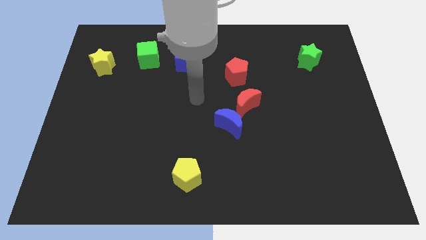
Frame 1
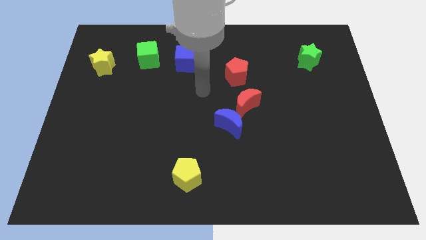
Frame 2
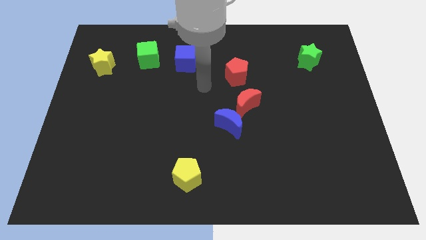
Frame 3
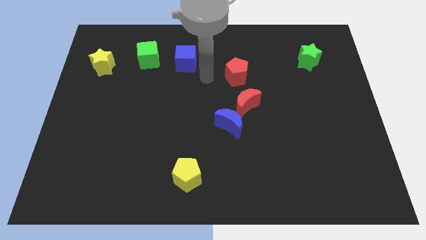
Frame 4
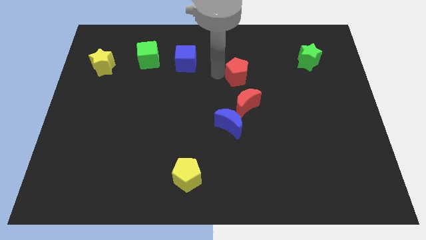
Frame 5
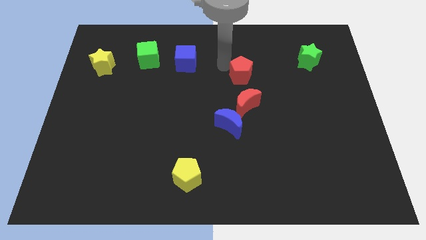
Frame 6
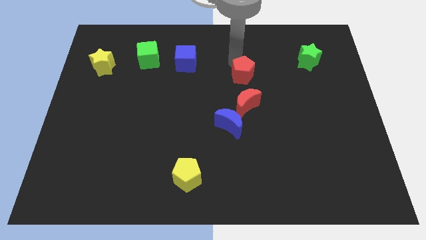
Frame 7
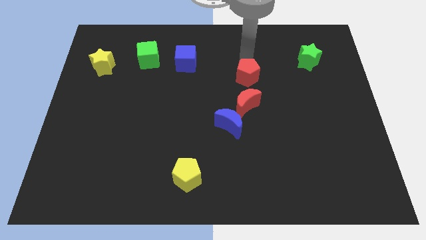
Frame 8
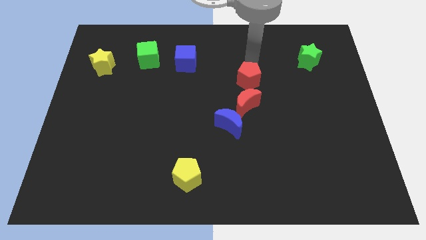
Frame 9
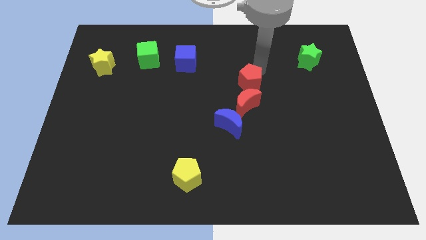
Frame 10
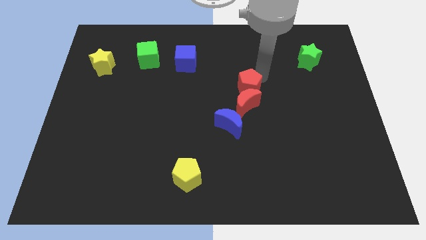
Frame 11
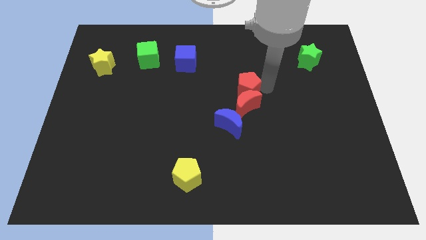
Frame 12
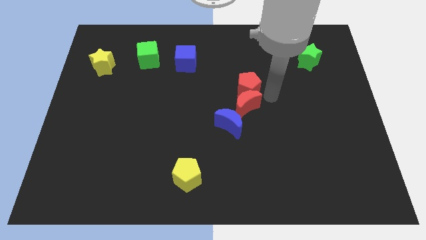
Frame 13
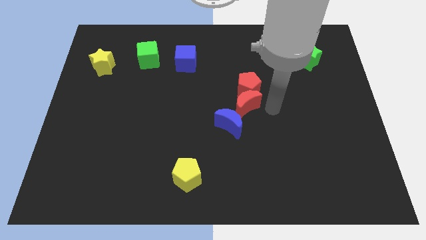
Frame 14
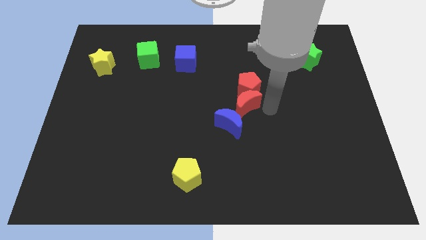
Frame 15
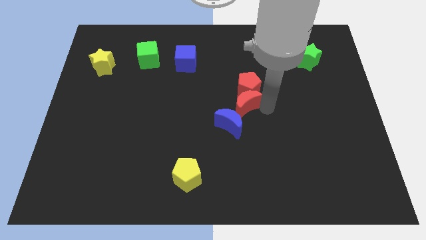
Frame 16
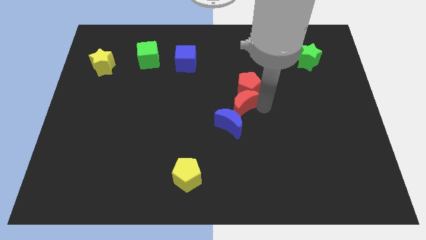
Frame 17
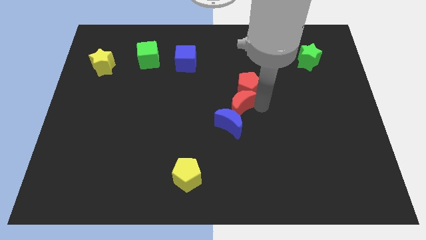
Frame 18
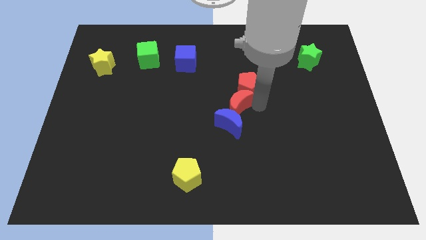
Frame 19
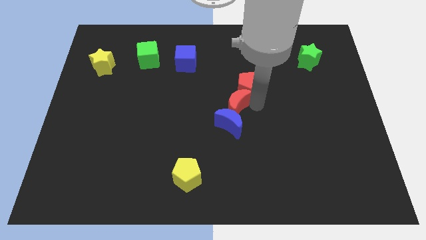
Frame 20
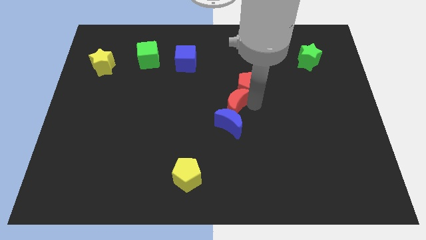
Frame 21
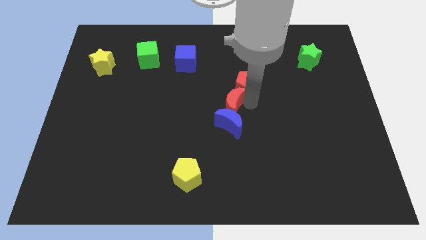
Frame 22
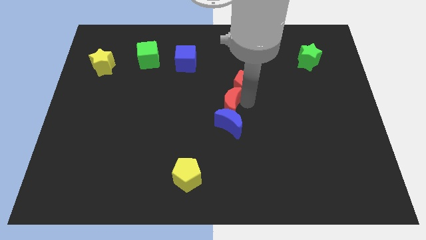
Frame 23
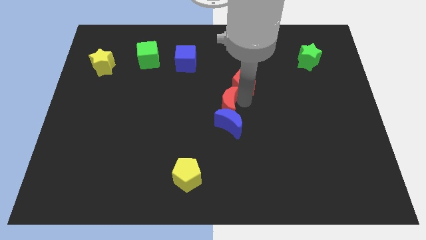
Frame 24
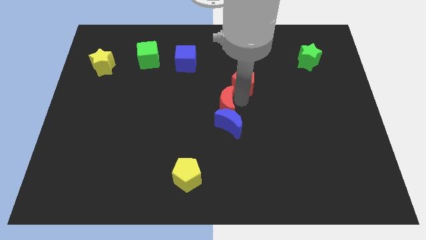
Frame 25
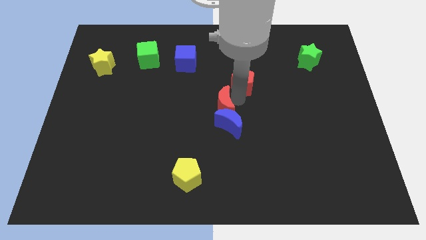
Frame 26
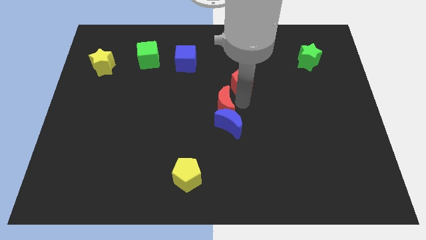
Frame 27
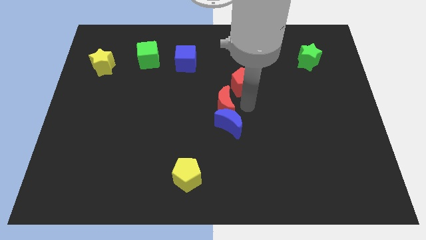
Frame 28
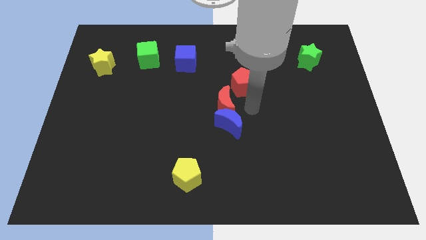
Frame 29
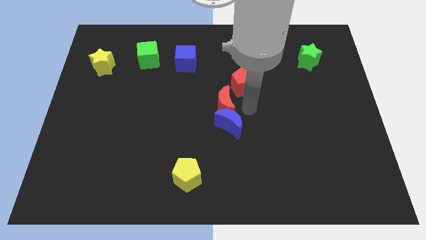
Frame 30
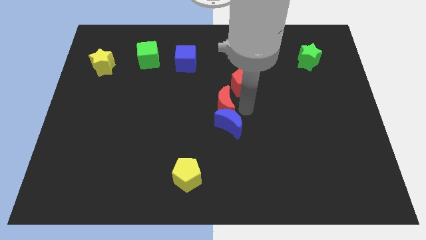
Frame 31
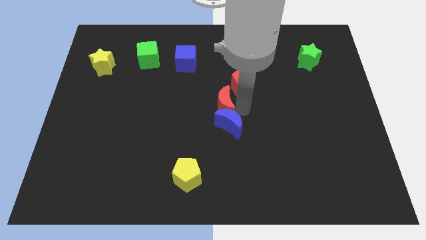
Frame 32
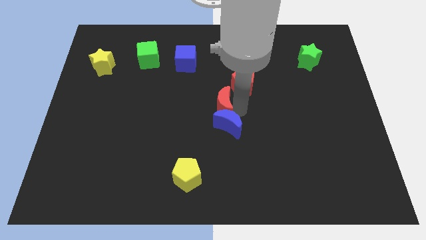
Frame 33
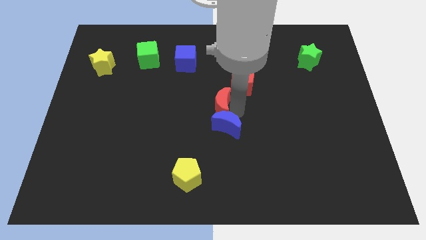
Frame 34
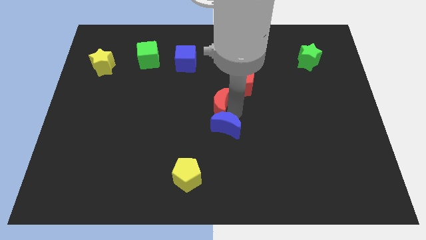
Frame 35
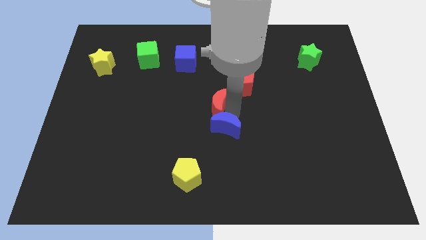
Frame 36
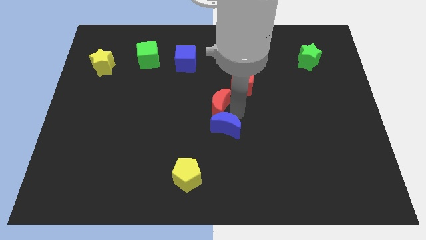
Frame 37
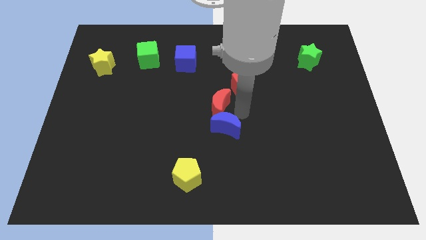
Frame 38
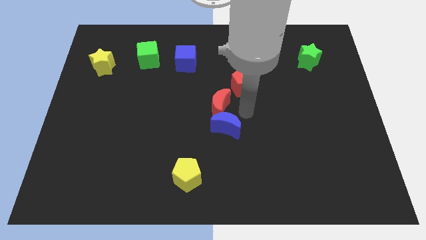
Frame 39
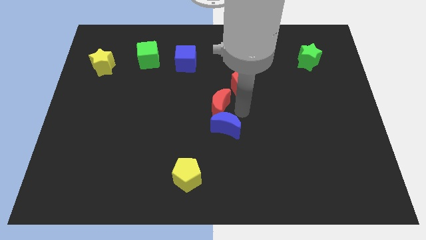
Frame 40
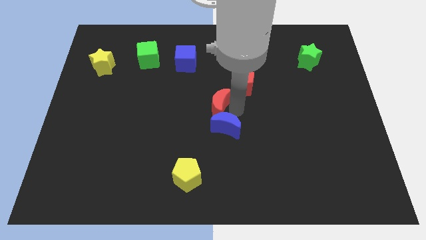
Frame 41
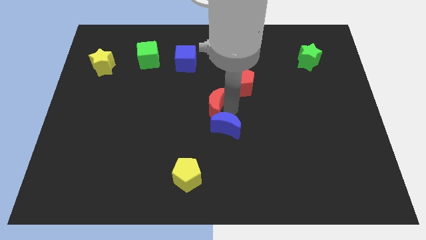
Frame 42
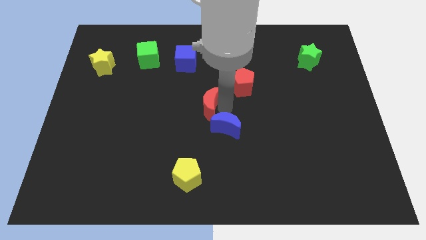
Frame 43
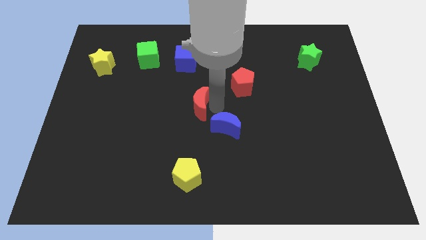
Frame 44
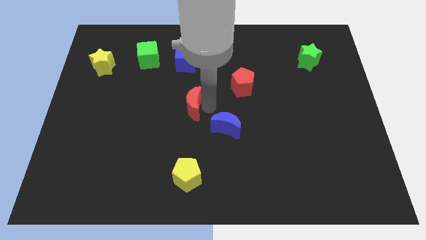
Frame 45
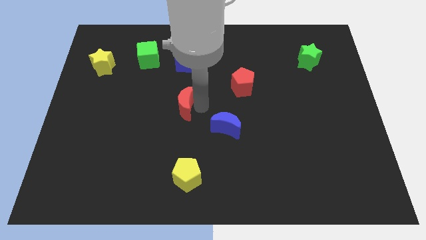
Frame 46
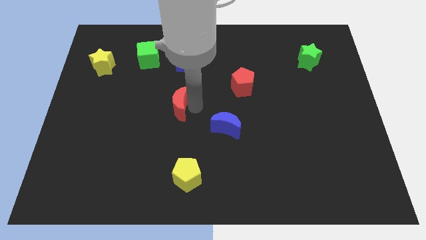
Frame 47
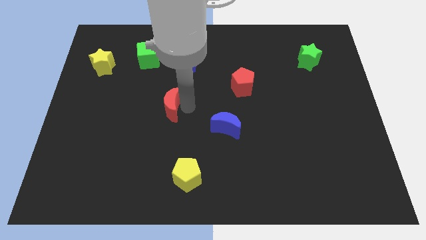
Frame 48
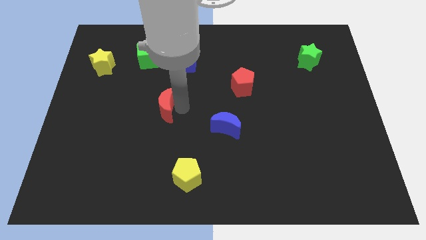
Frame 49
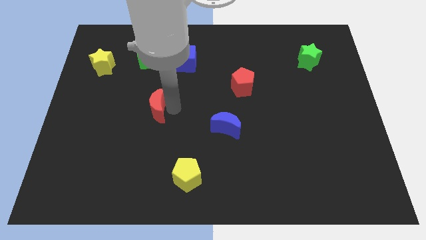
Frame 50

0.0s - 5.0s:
slide the red moon to the left

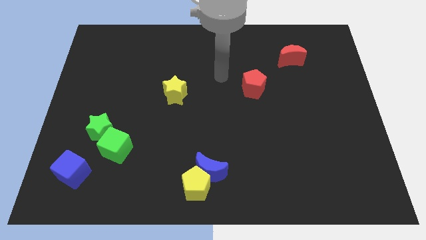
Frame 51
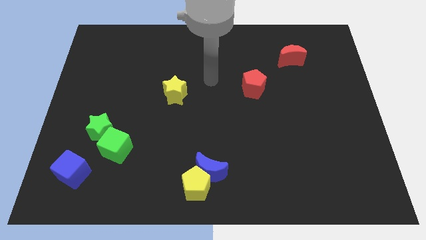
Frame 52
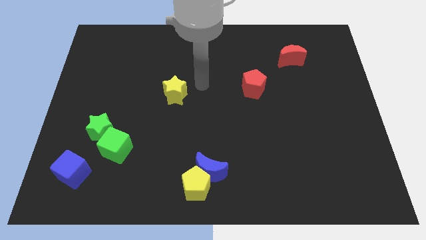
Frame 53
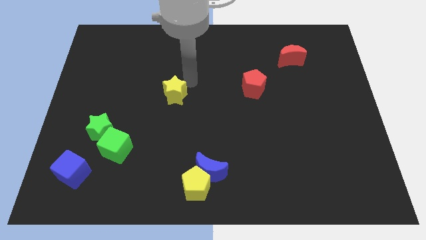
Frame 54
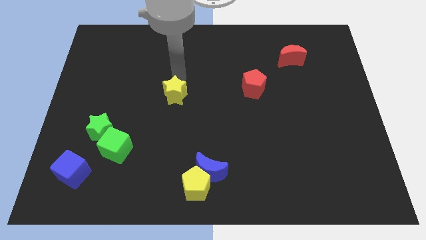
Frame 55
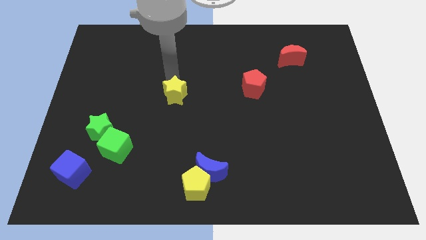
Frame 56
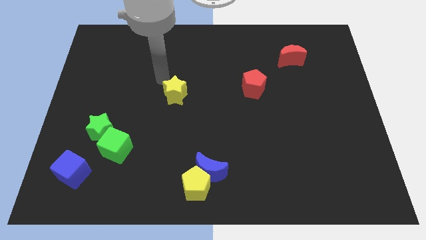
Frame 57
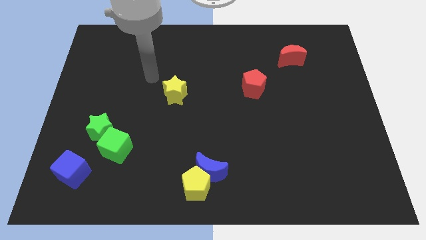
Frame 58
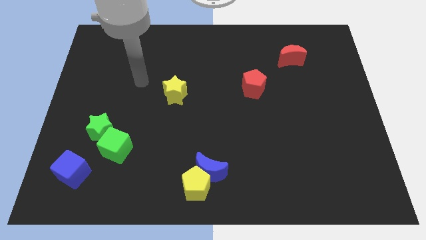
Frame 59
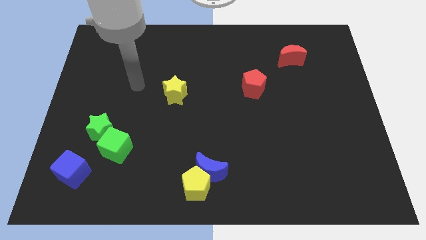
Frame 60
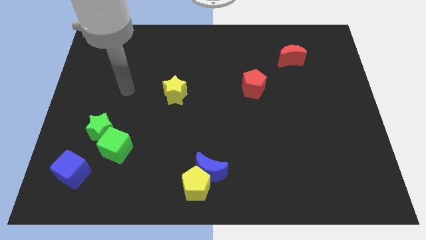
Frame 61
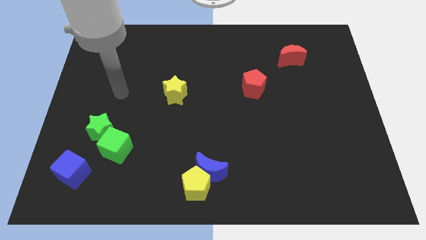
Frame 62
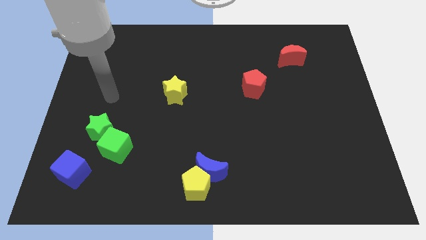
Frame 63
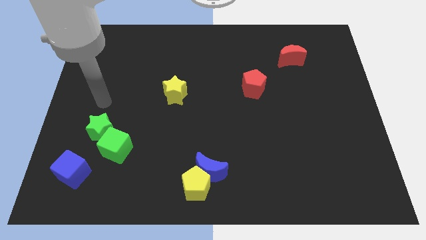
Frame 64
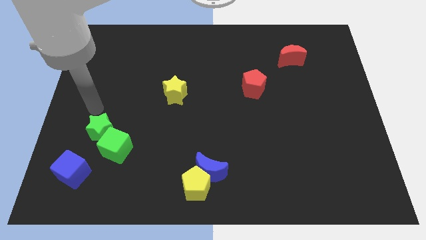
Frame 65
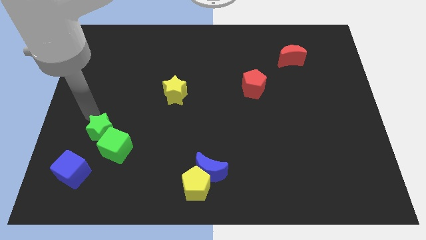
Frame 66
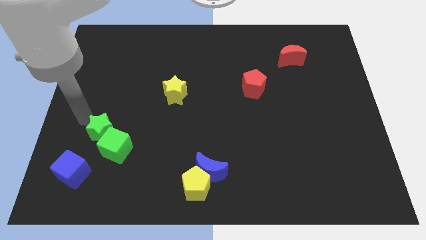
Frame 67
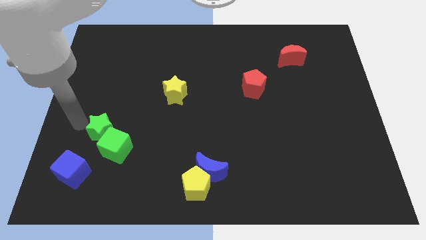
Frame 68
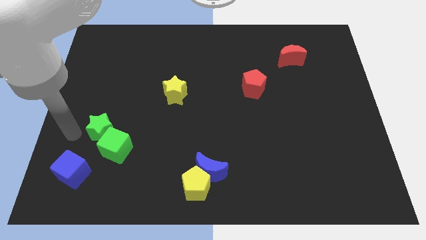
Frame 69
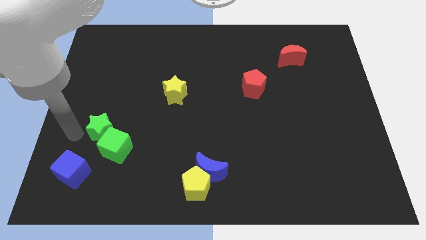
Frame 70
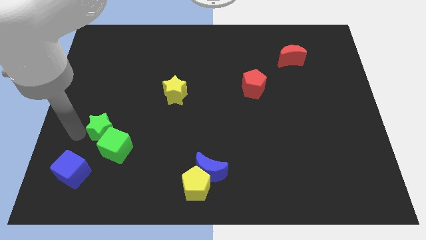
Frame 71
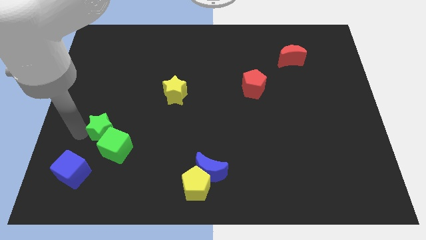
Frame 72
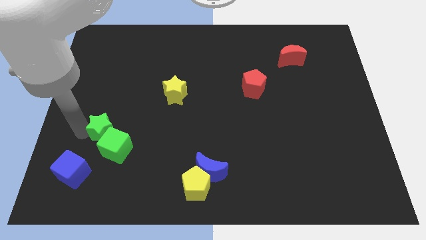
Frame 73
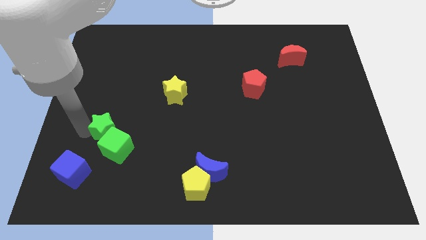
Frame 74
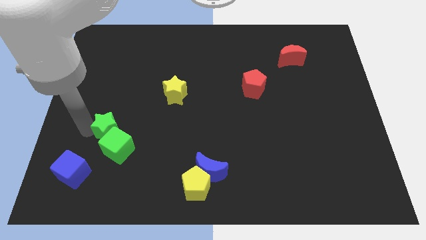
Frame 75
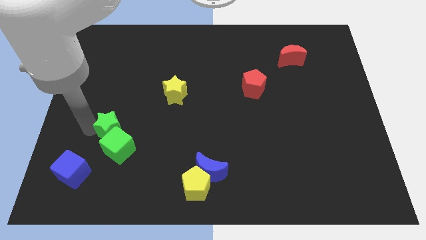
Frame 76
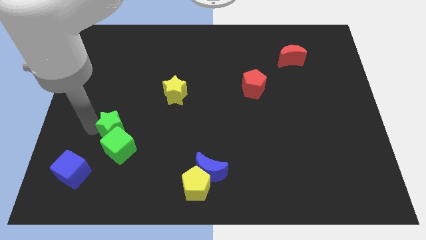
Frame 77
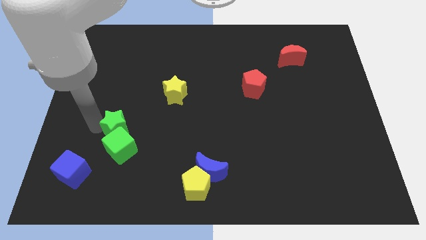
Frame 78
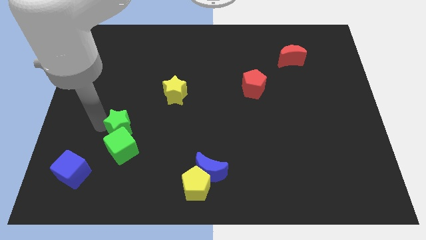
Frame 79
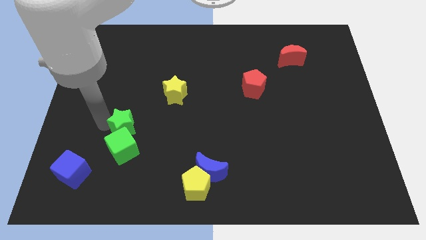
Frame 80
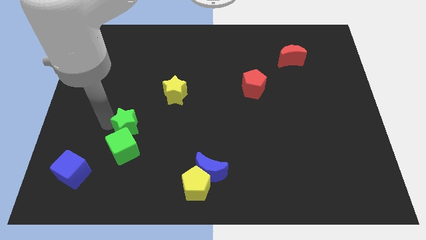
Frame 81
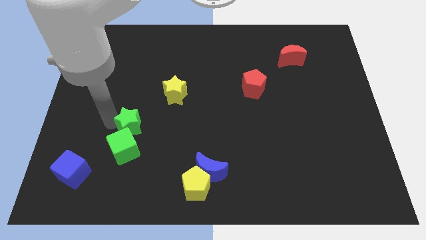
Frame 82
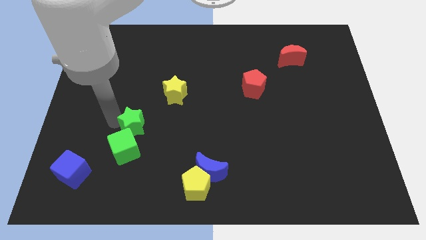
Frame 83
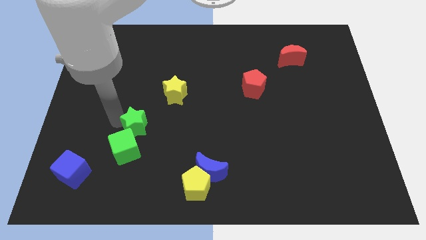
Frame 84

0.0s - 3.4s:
slightly move the green star right

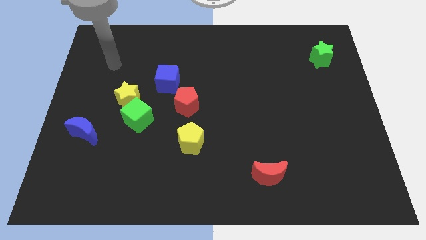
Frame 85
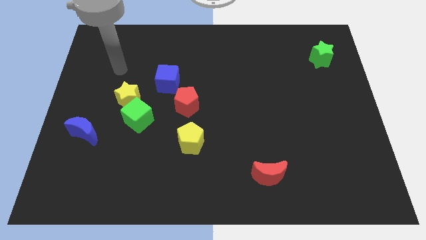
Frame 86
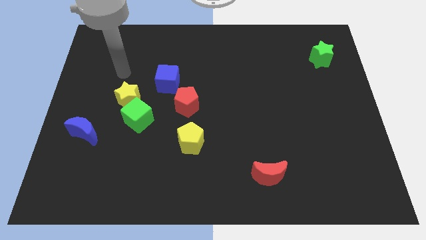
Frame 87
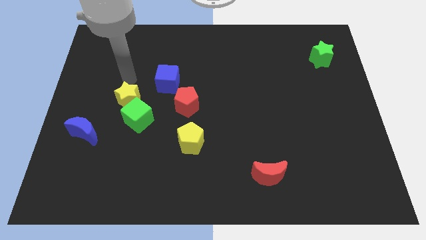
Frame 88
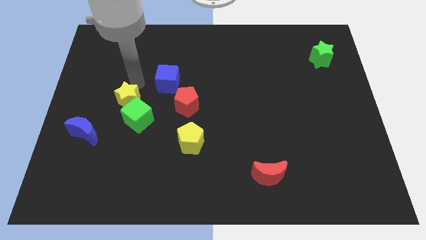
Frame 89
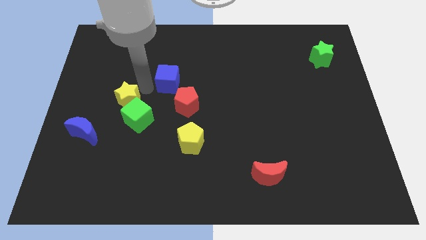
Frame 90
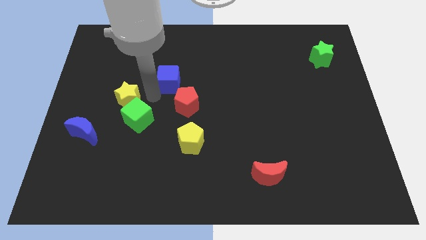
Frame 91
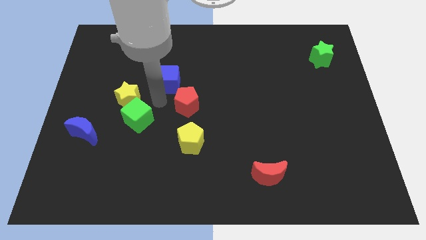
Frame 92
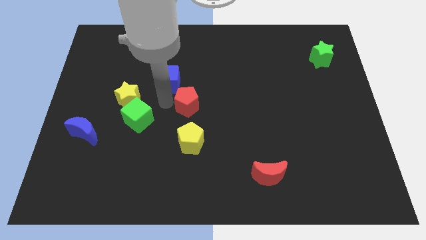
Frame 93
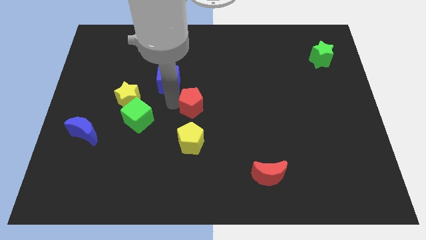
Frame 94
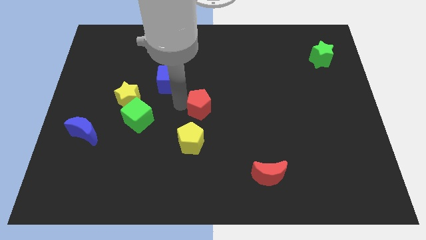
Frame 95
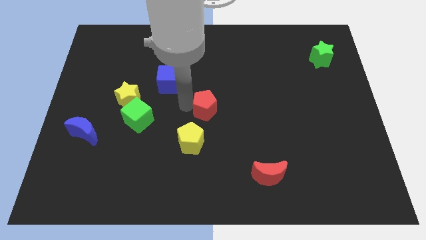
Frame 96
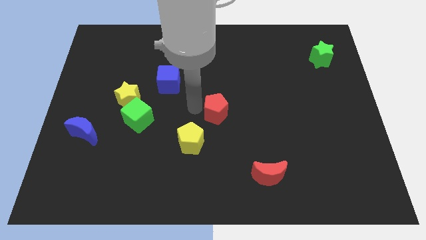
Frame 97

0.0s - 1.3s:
slightly move the red pentagon to the right
